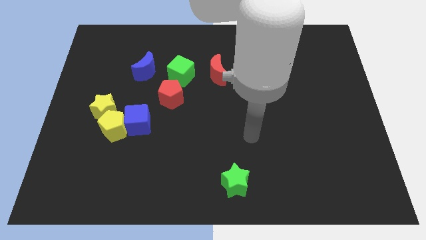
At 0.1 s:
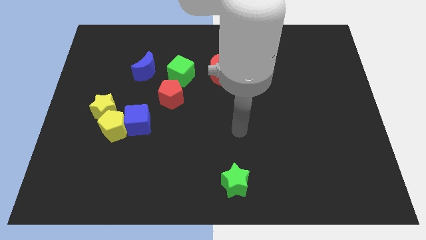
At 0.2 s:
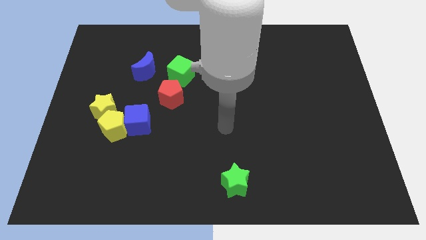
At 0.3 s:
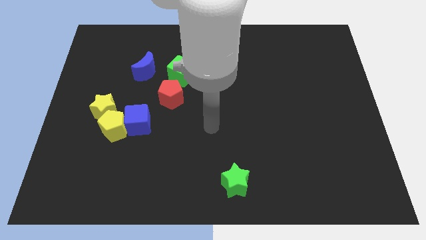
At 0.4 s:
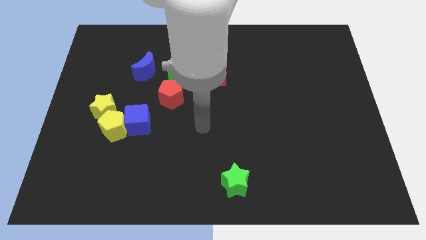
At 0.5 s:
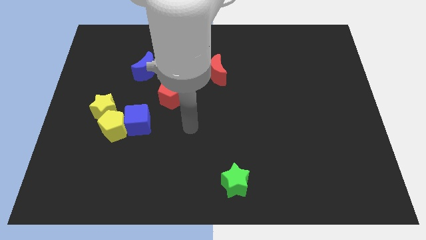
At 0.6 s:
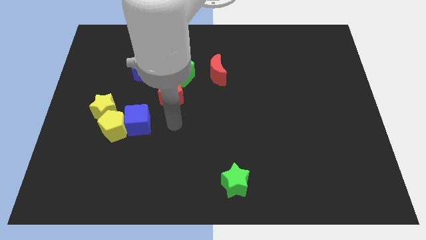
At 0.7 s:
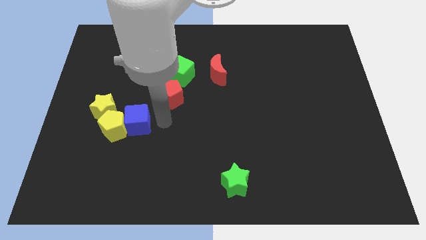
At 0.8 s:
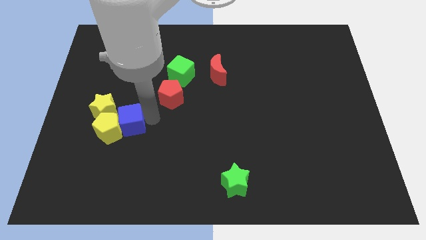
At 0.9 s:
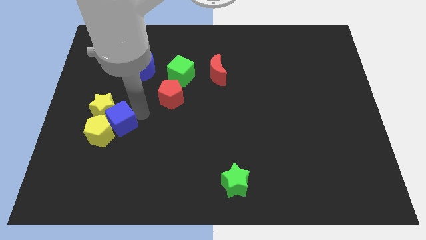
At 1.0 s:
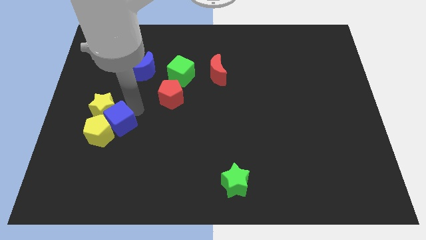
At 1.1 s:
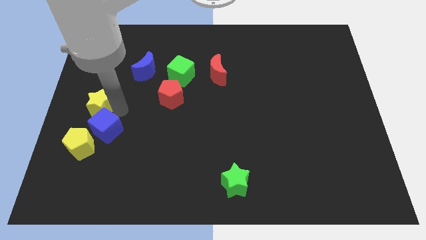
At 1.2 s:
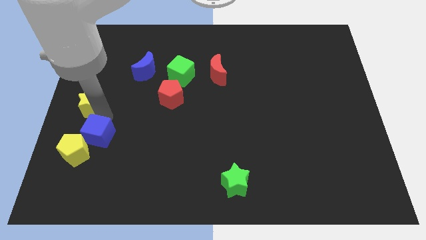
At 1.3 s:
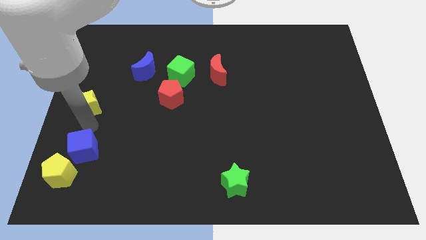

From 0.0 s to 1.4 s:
move the yellow pentagon away from the blue cube and yellow star

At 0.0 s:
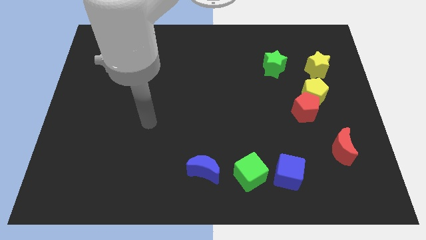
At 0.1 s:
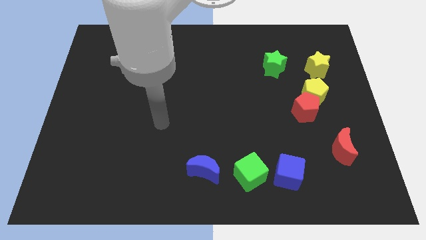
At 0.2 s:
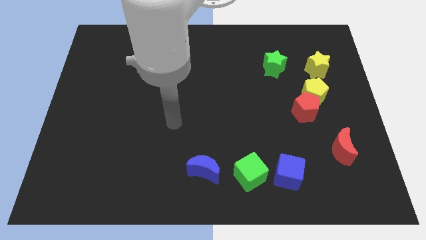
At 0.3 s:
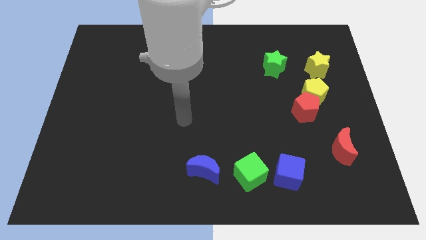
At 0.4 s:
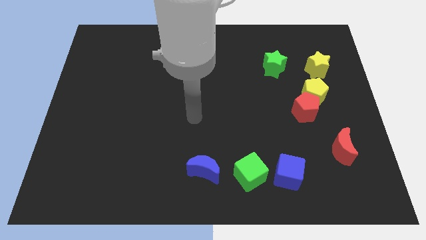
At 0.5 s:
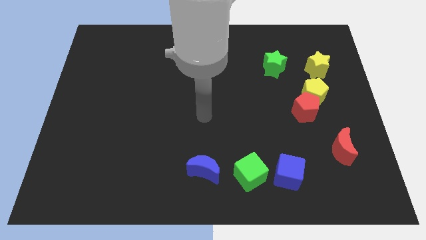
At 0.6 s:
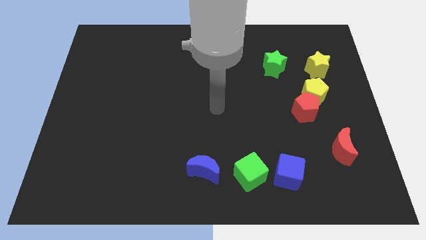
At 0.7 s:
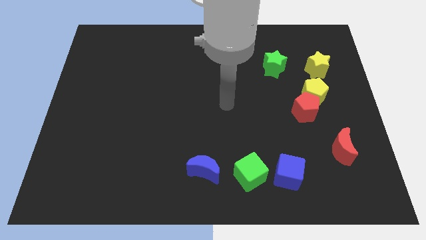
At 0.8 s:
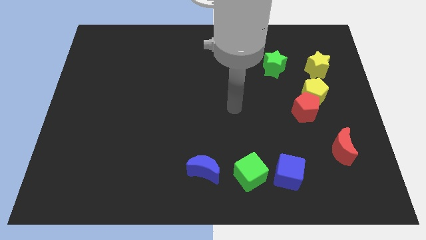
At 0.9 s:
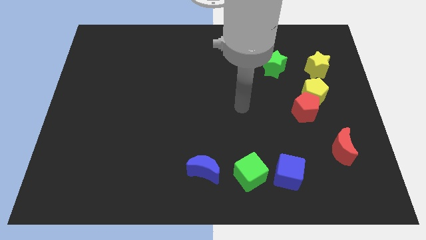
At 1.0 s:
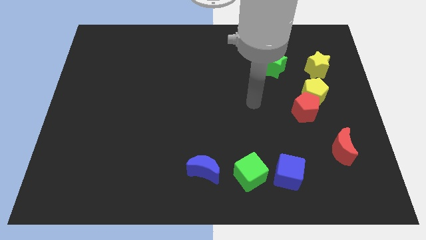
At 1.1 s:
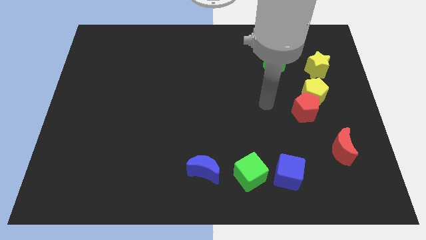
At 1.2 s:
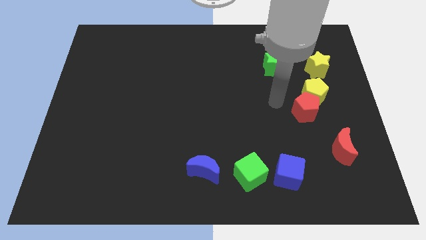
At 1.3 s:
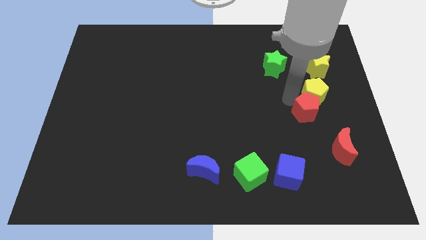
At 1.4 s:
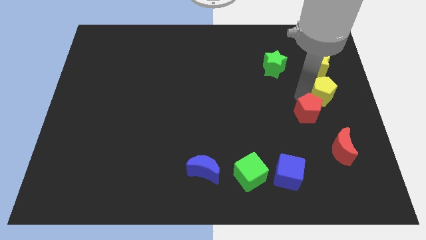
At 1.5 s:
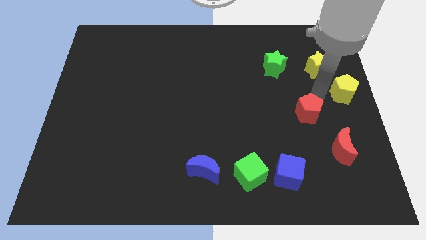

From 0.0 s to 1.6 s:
separate the red pentagon from the yellow pentagon

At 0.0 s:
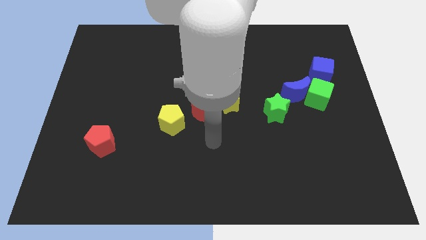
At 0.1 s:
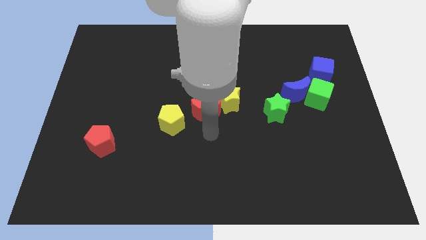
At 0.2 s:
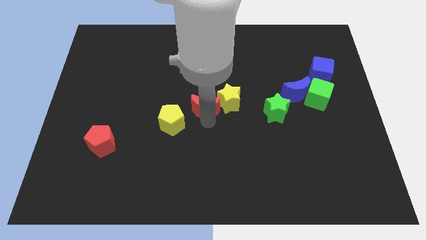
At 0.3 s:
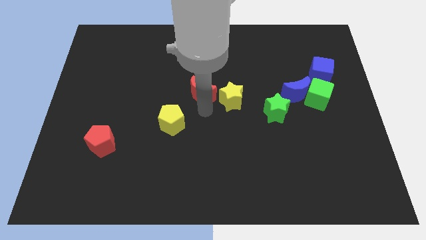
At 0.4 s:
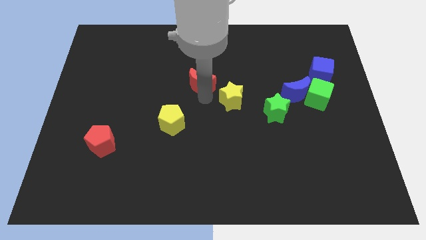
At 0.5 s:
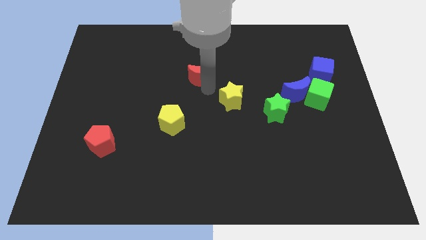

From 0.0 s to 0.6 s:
separate the yellow star from the red moon

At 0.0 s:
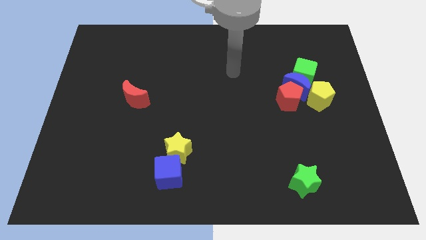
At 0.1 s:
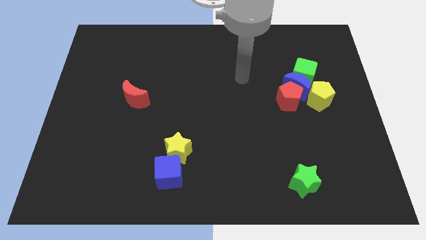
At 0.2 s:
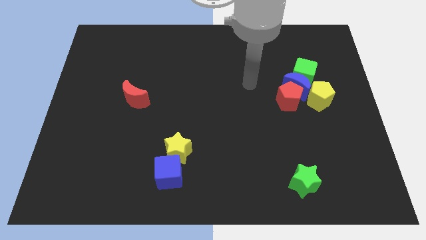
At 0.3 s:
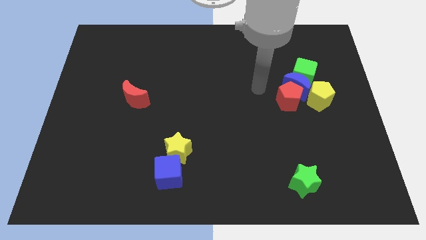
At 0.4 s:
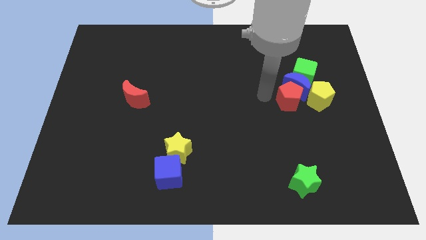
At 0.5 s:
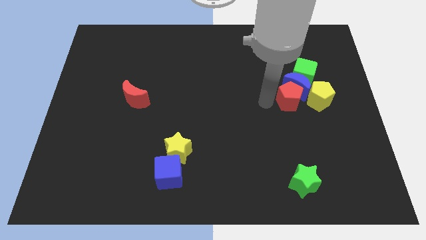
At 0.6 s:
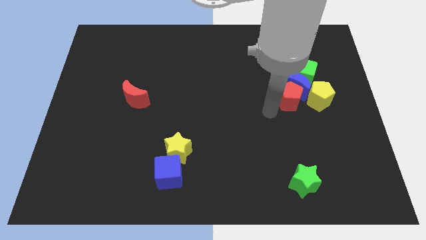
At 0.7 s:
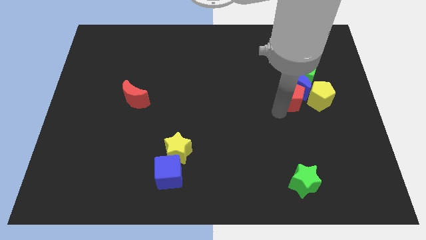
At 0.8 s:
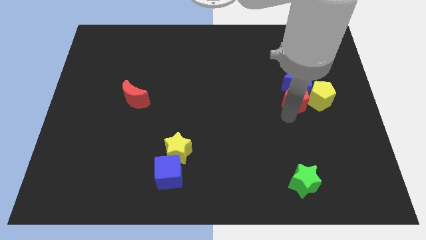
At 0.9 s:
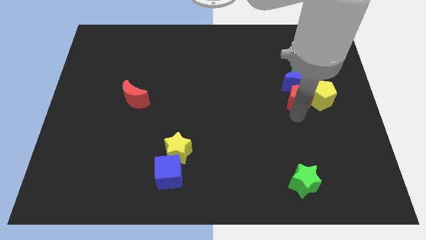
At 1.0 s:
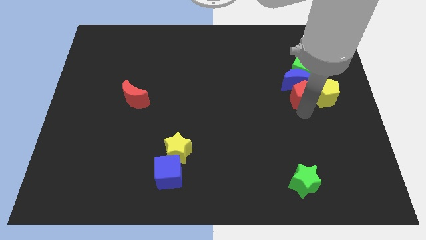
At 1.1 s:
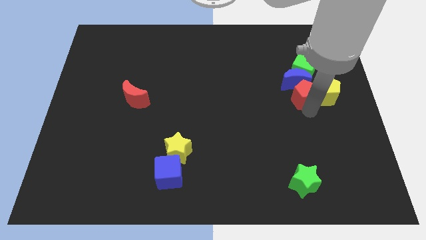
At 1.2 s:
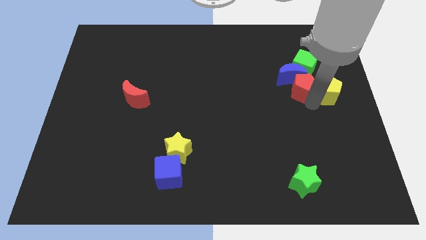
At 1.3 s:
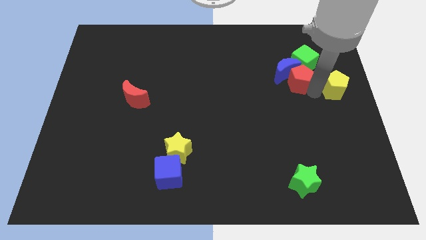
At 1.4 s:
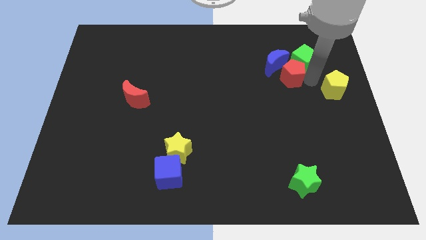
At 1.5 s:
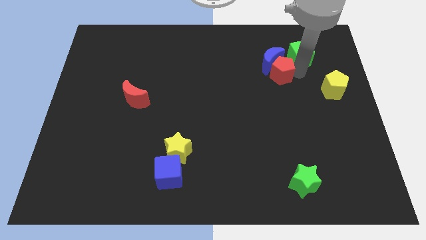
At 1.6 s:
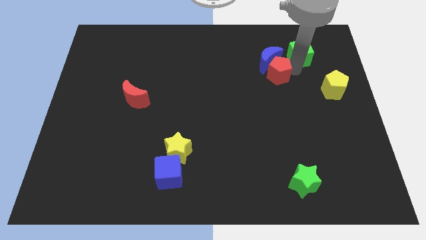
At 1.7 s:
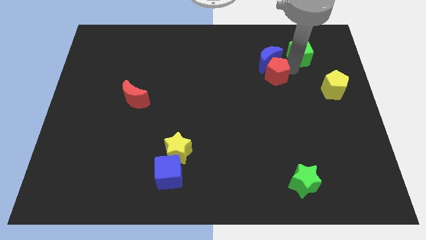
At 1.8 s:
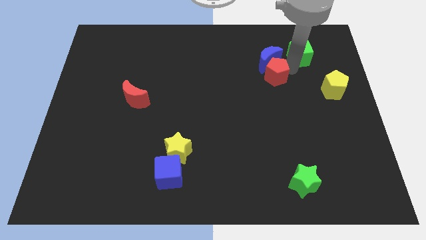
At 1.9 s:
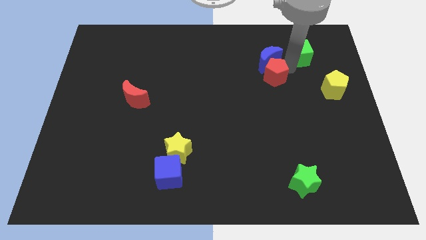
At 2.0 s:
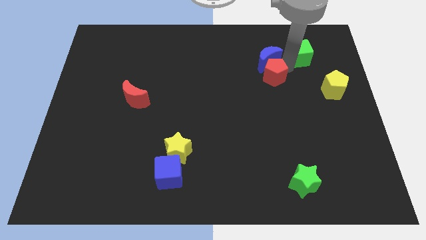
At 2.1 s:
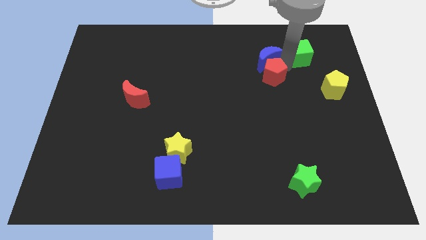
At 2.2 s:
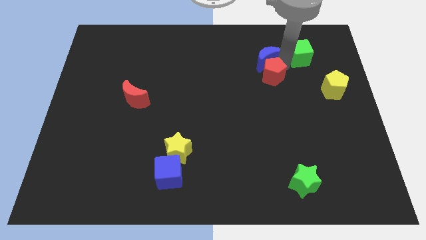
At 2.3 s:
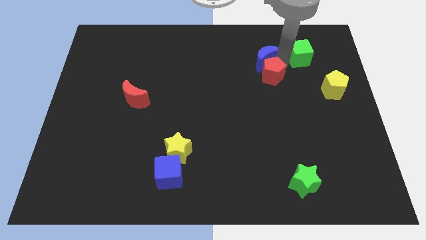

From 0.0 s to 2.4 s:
move the blue moon away from the group

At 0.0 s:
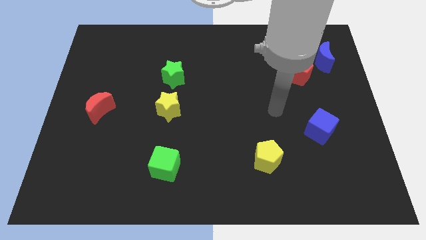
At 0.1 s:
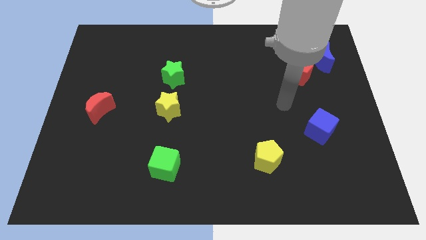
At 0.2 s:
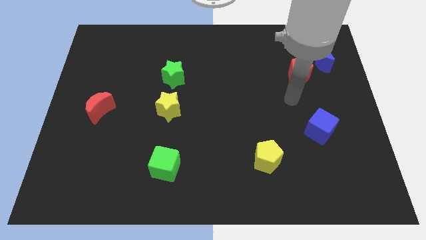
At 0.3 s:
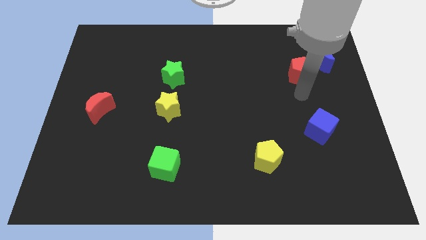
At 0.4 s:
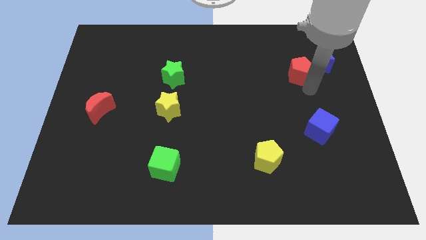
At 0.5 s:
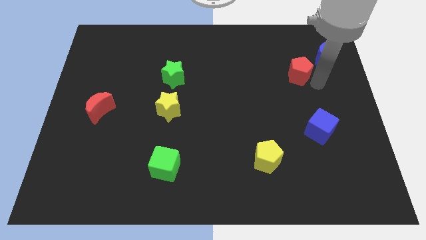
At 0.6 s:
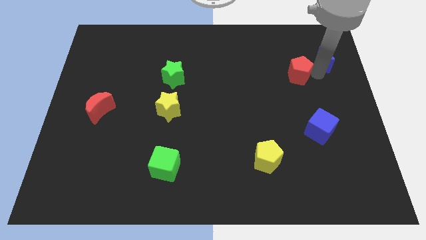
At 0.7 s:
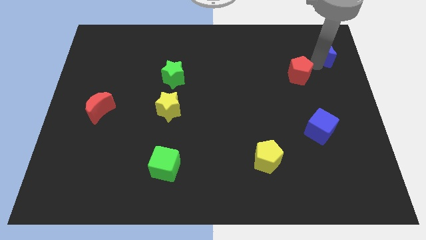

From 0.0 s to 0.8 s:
separate the red pentagon from the blue moon

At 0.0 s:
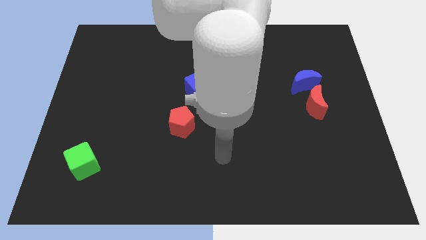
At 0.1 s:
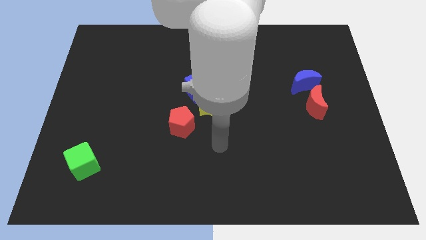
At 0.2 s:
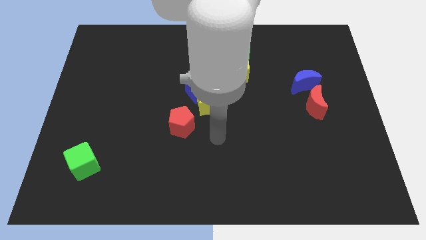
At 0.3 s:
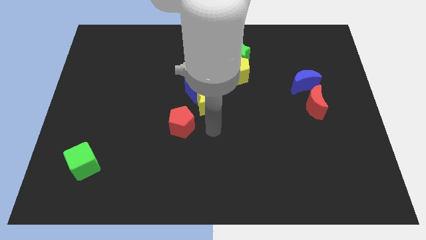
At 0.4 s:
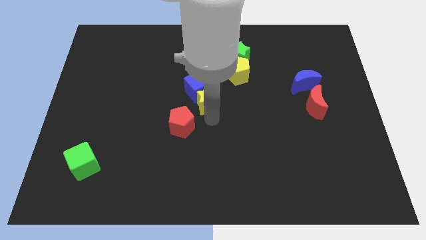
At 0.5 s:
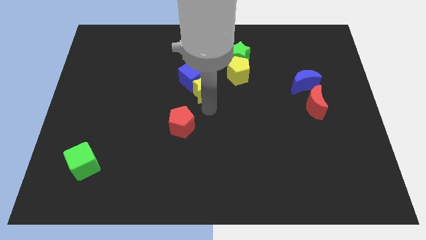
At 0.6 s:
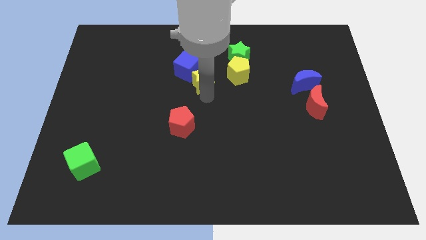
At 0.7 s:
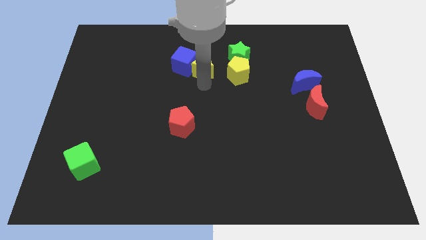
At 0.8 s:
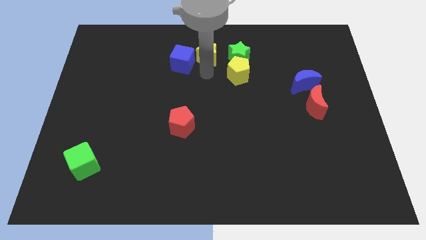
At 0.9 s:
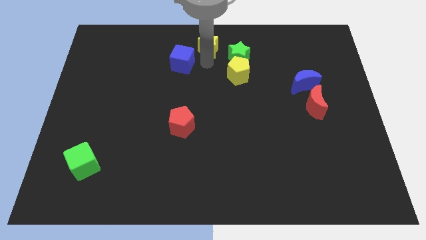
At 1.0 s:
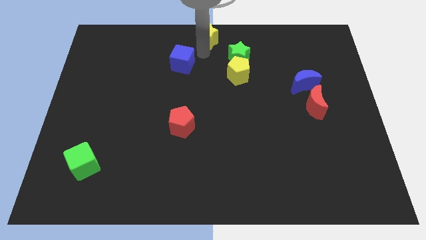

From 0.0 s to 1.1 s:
pull the blue cube apart from the yellow star

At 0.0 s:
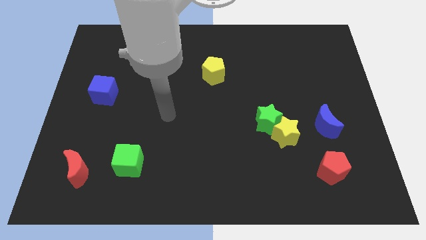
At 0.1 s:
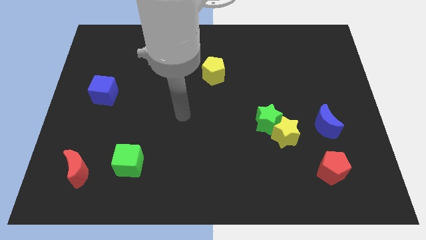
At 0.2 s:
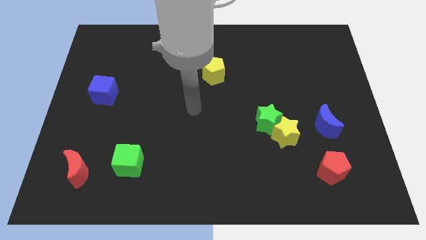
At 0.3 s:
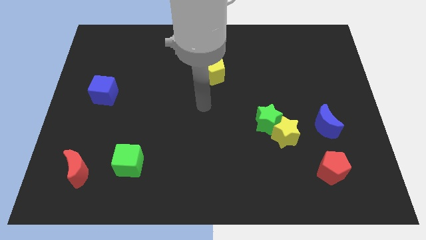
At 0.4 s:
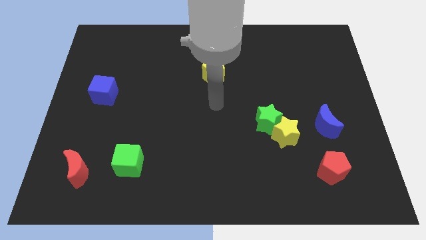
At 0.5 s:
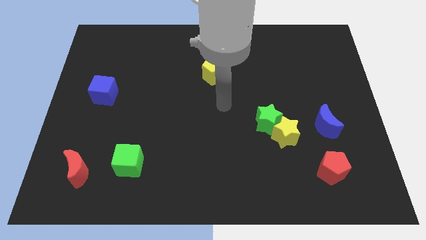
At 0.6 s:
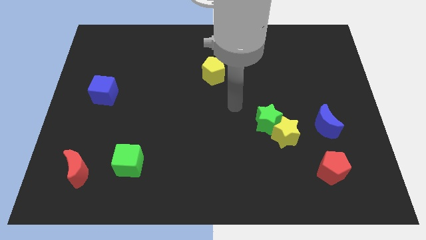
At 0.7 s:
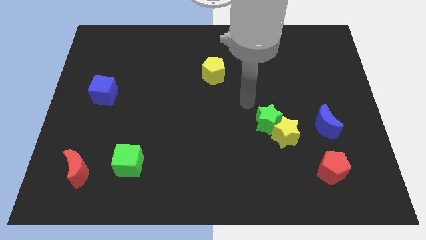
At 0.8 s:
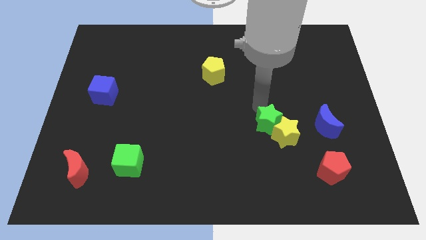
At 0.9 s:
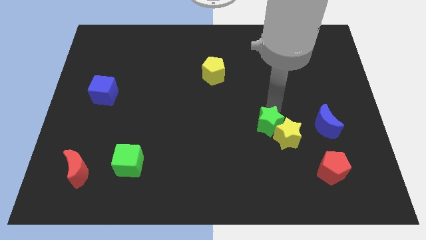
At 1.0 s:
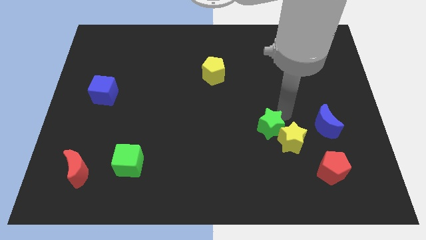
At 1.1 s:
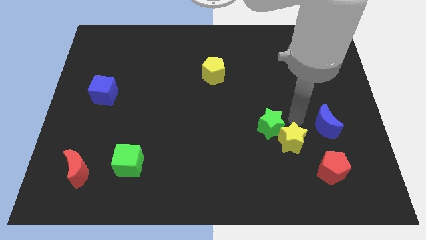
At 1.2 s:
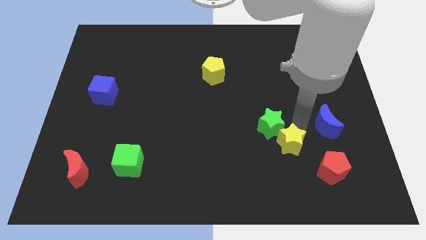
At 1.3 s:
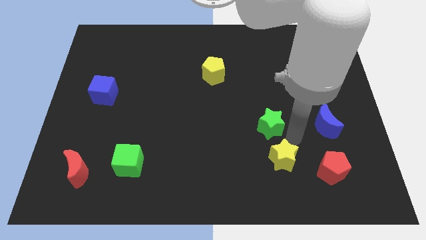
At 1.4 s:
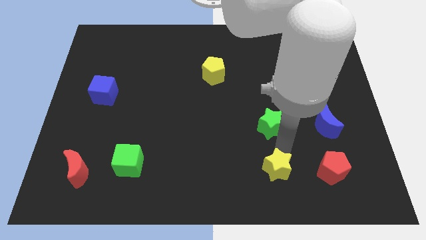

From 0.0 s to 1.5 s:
separate the green star from the yellow star

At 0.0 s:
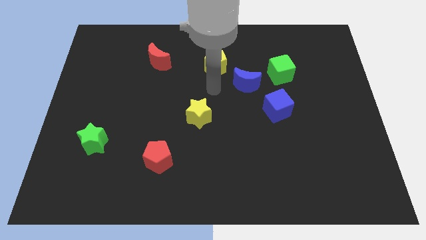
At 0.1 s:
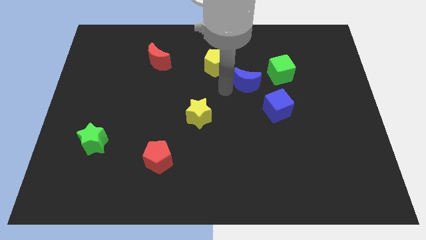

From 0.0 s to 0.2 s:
move the green cube away from the blue moon
